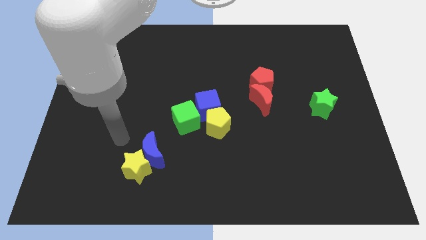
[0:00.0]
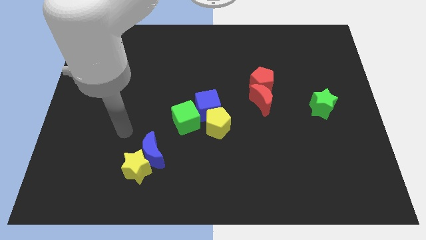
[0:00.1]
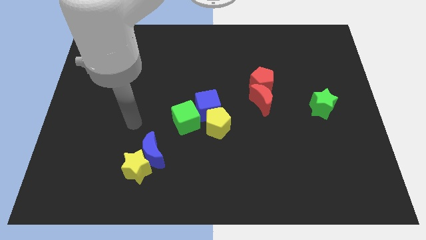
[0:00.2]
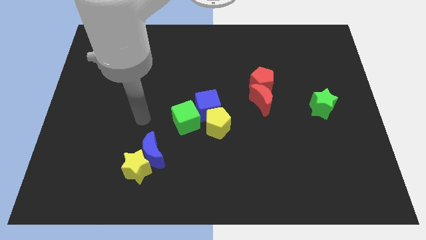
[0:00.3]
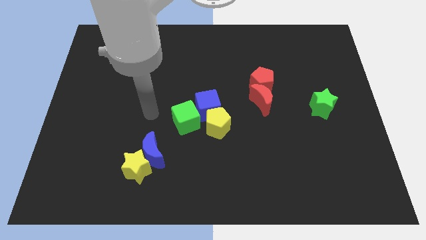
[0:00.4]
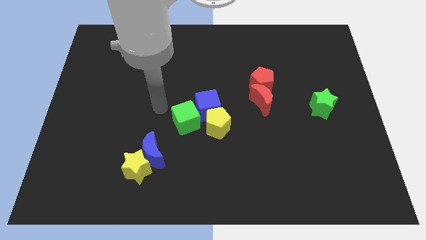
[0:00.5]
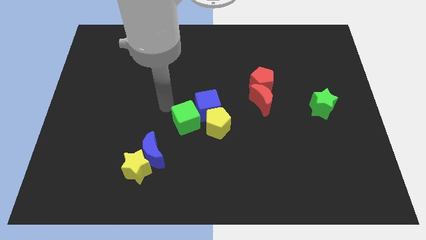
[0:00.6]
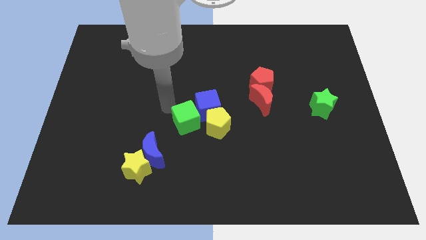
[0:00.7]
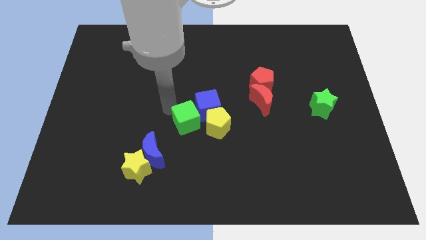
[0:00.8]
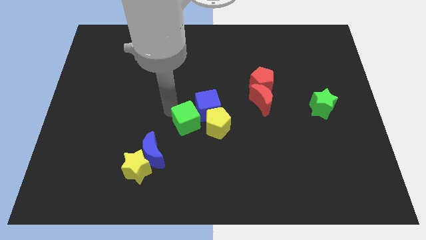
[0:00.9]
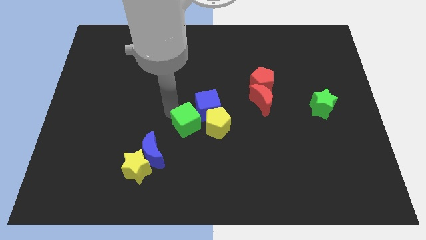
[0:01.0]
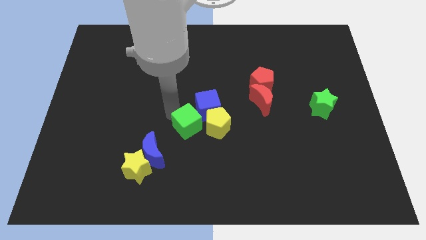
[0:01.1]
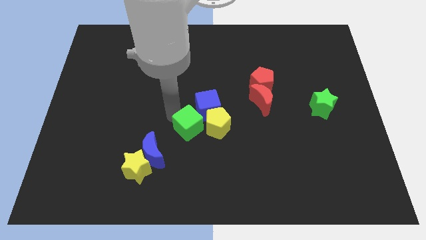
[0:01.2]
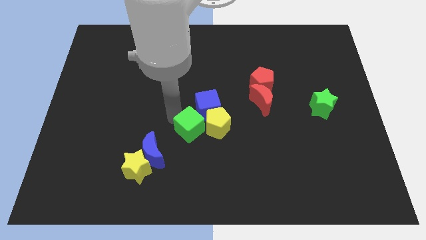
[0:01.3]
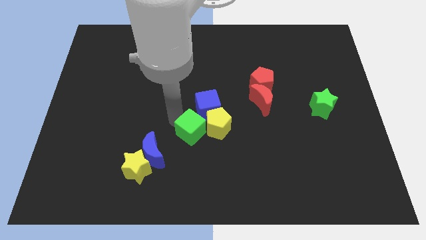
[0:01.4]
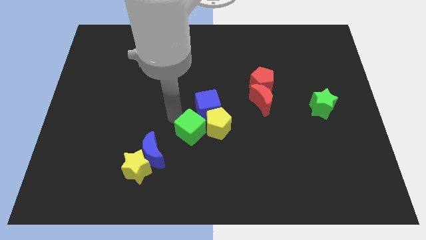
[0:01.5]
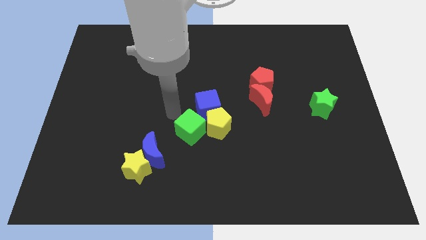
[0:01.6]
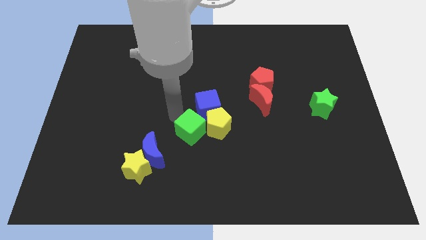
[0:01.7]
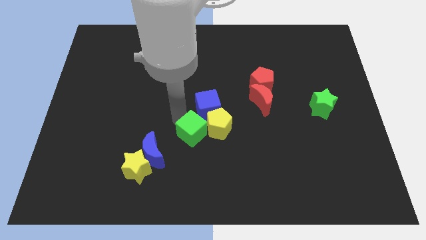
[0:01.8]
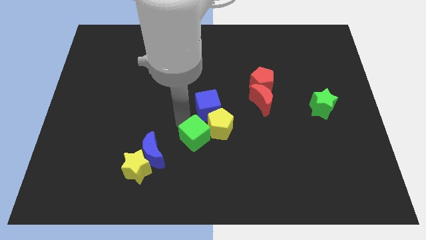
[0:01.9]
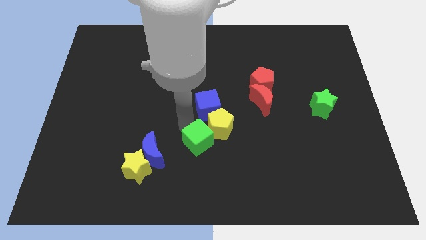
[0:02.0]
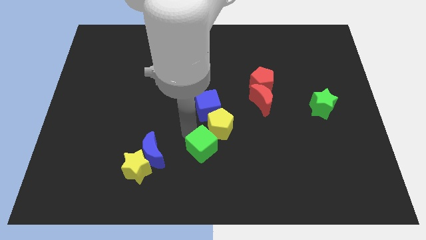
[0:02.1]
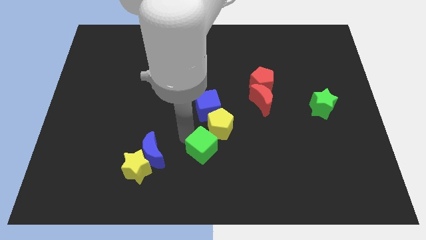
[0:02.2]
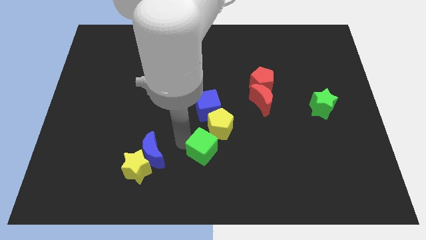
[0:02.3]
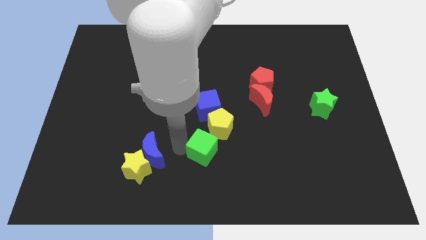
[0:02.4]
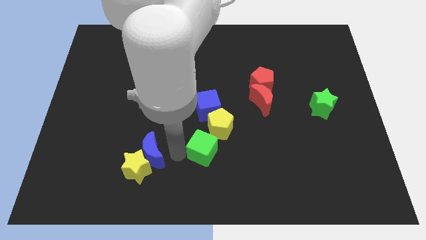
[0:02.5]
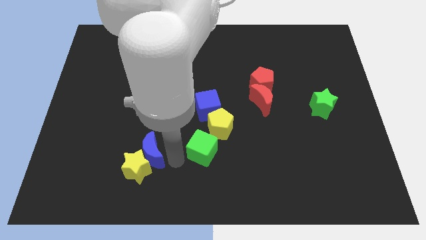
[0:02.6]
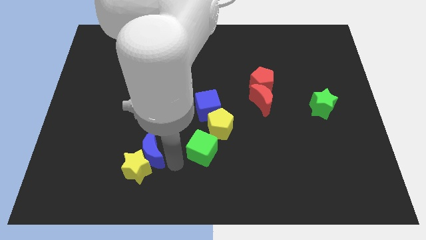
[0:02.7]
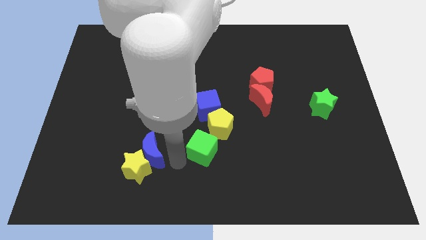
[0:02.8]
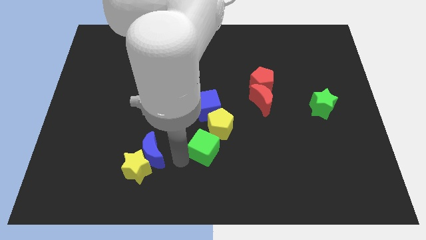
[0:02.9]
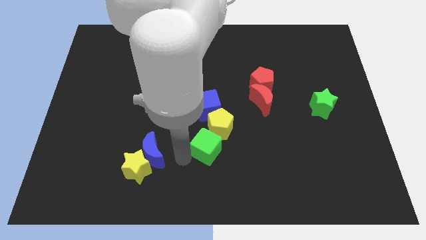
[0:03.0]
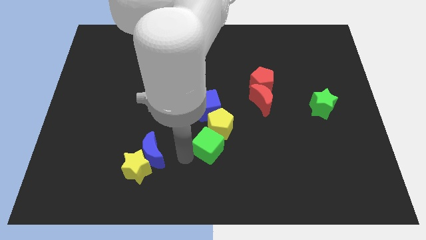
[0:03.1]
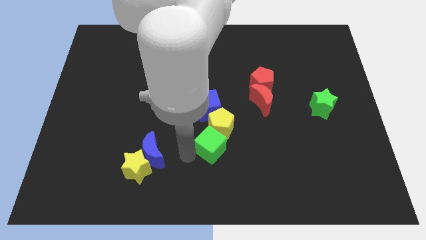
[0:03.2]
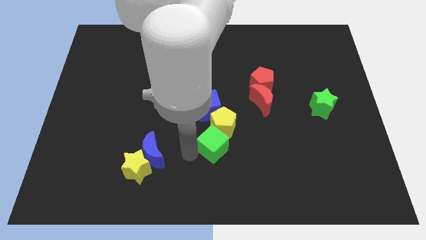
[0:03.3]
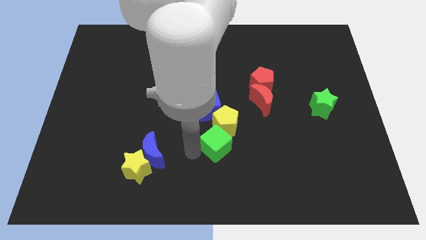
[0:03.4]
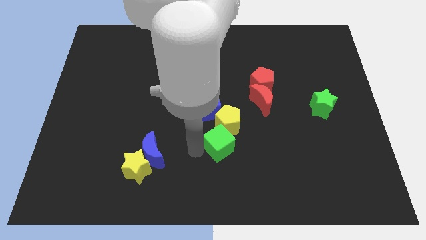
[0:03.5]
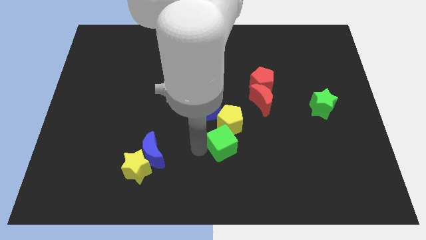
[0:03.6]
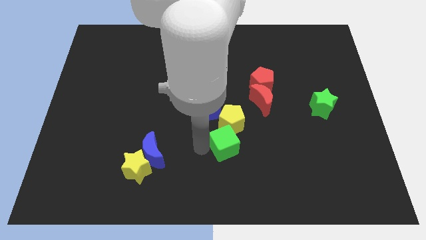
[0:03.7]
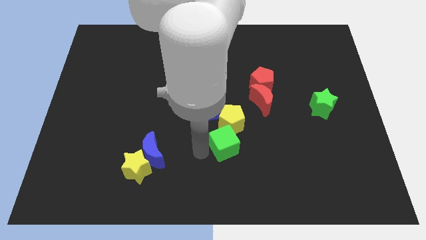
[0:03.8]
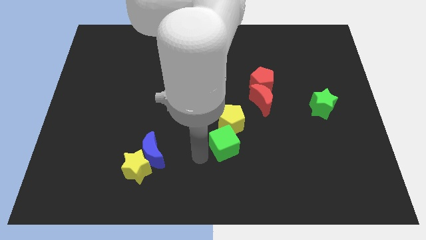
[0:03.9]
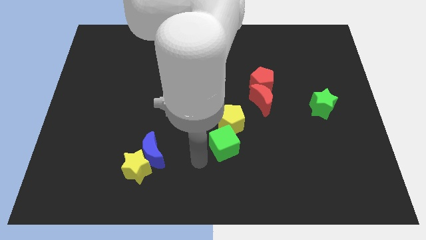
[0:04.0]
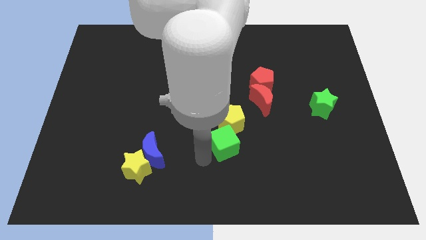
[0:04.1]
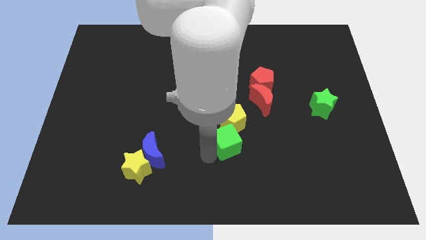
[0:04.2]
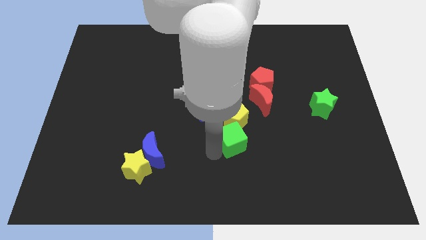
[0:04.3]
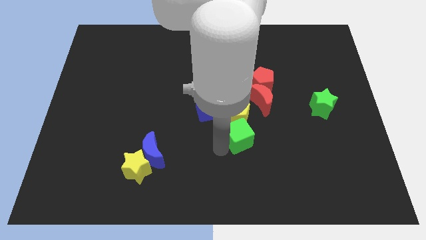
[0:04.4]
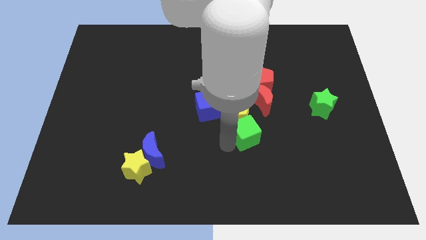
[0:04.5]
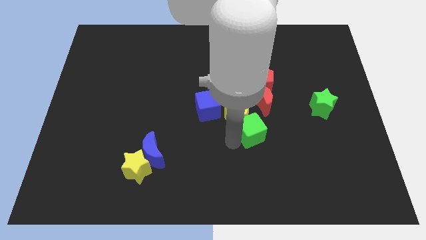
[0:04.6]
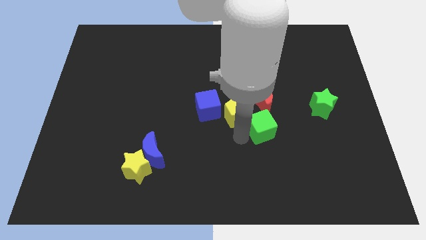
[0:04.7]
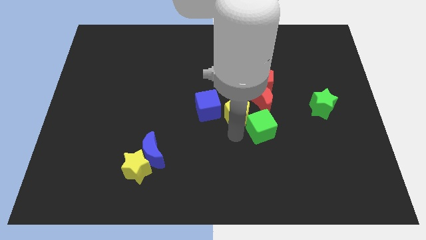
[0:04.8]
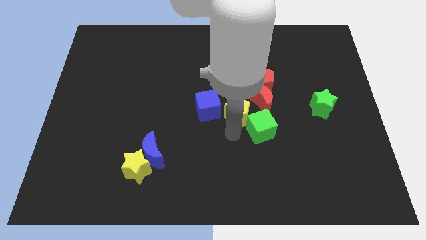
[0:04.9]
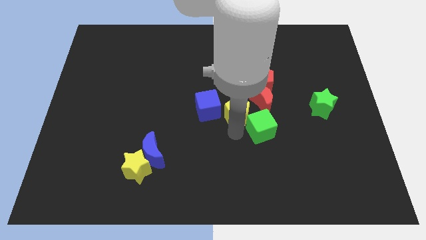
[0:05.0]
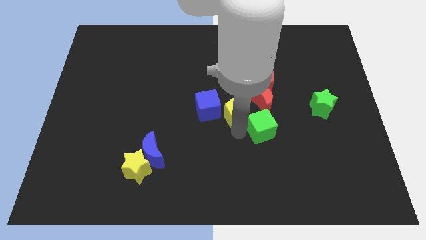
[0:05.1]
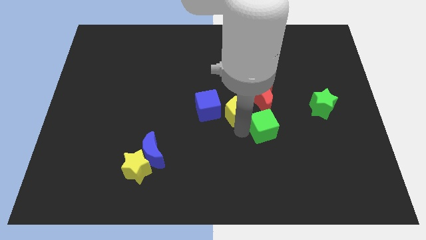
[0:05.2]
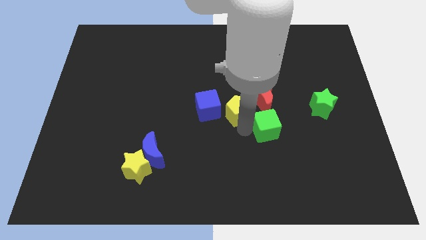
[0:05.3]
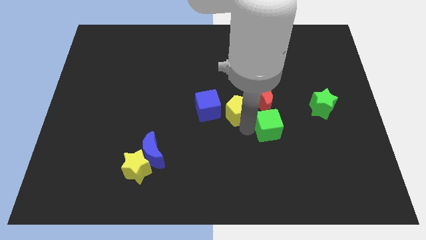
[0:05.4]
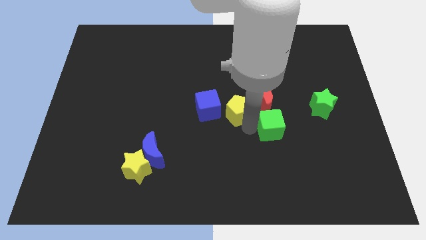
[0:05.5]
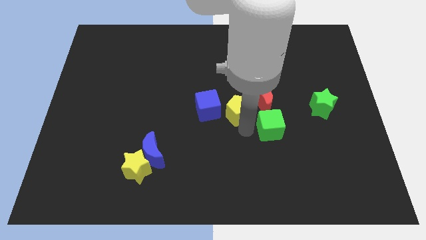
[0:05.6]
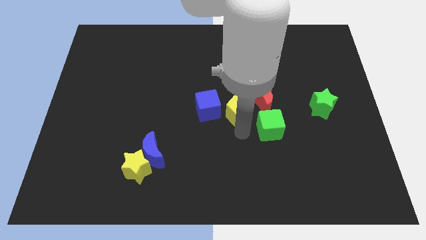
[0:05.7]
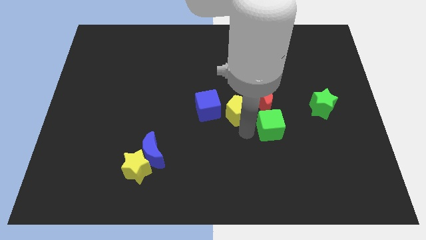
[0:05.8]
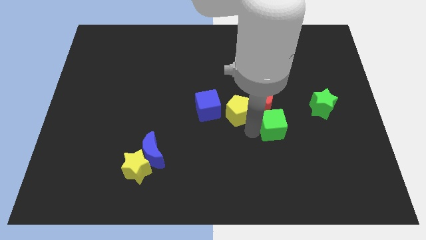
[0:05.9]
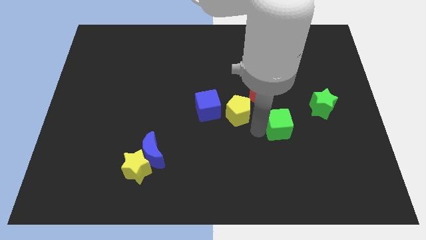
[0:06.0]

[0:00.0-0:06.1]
move the green cube to the right

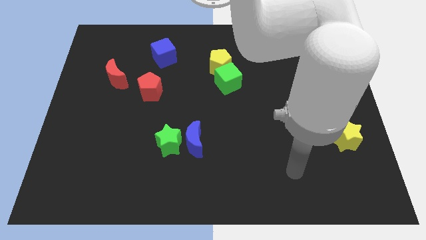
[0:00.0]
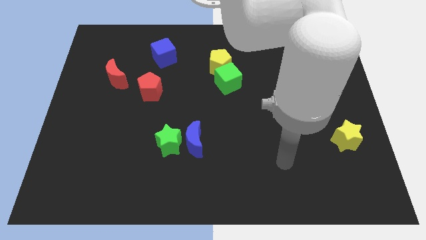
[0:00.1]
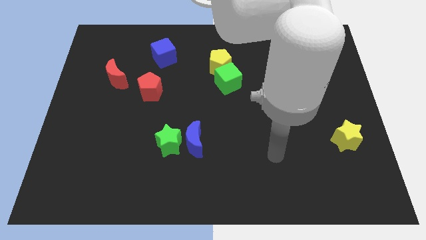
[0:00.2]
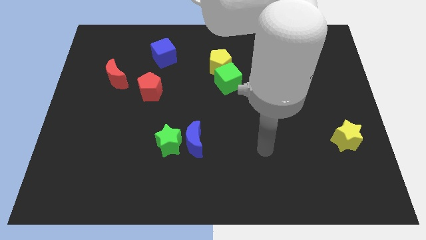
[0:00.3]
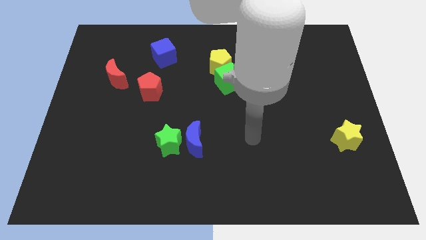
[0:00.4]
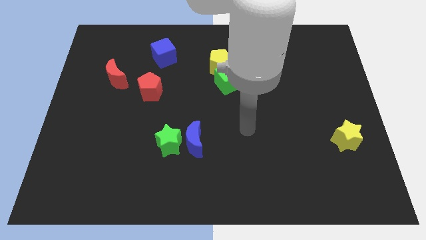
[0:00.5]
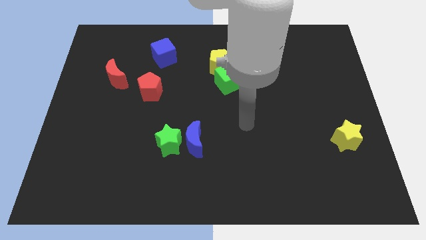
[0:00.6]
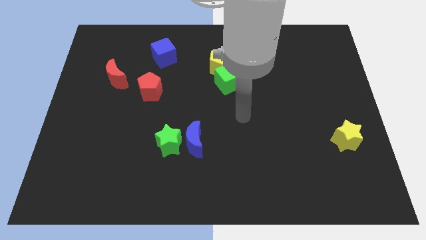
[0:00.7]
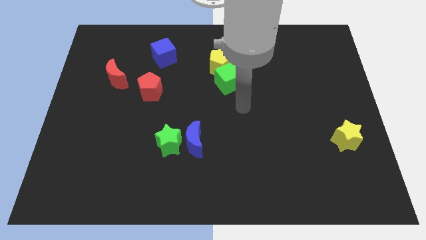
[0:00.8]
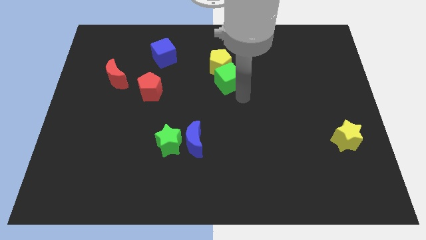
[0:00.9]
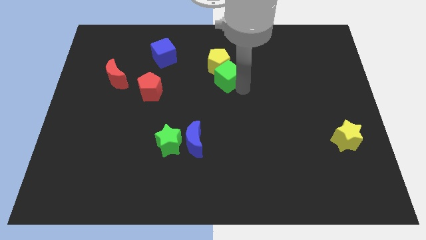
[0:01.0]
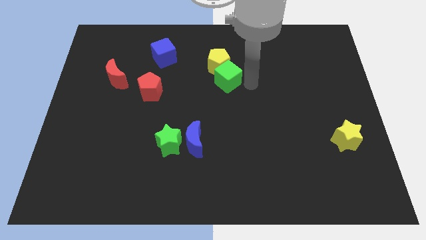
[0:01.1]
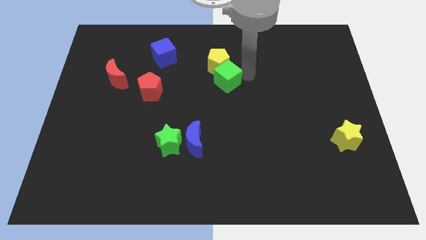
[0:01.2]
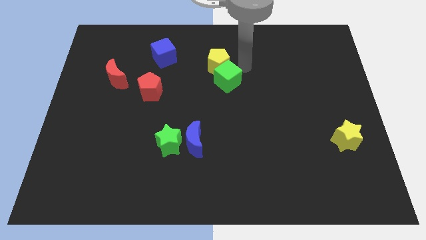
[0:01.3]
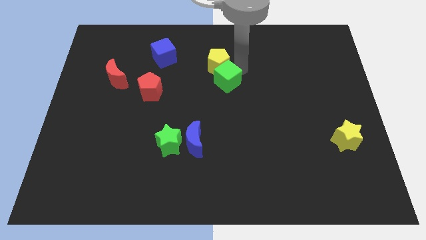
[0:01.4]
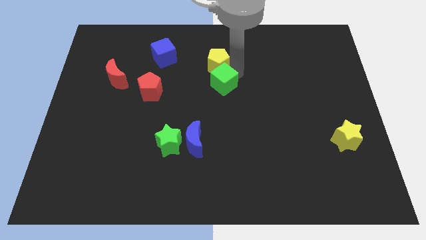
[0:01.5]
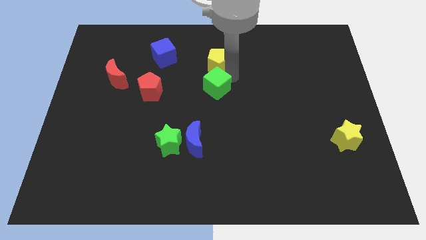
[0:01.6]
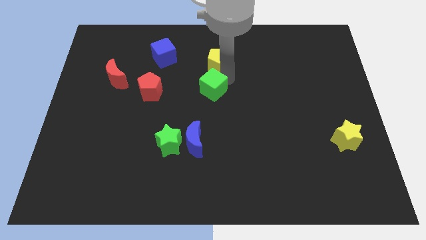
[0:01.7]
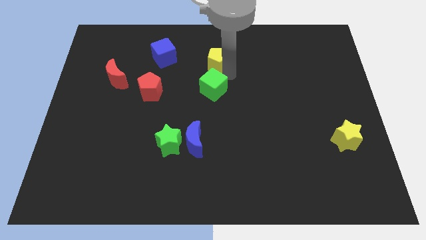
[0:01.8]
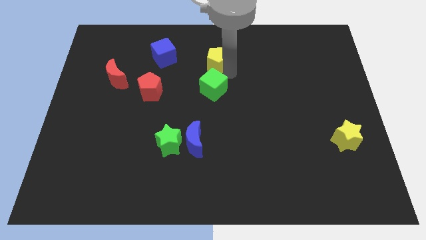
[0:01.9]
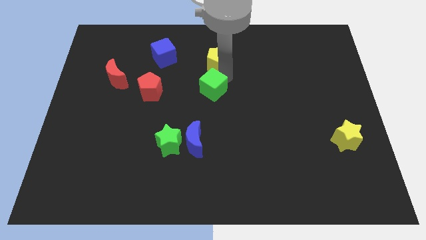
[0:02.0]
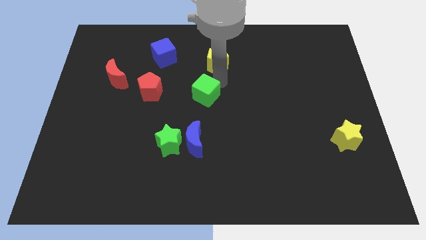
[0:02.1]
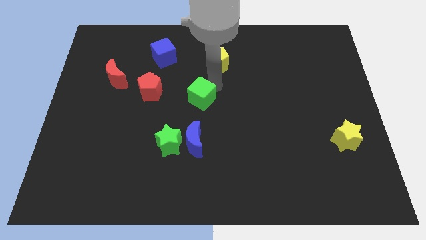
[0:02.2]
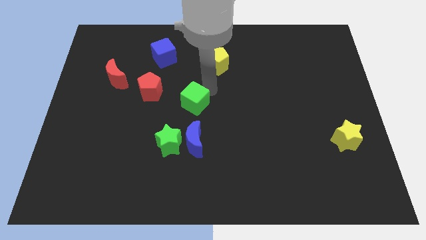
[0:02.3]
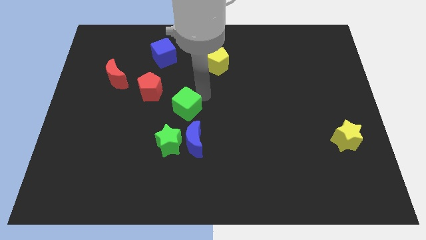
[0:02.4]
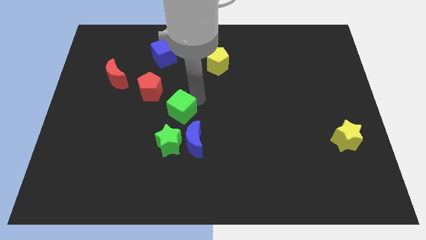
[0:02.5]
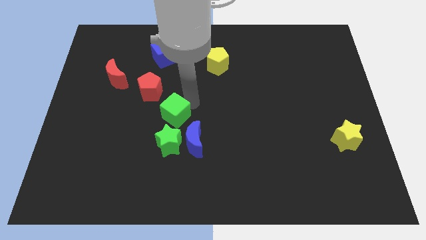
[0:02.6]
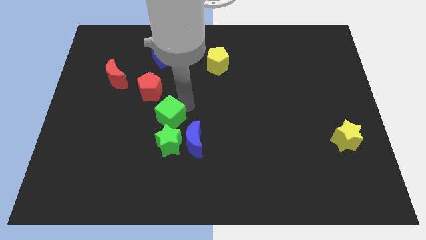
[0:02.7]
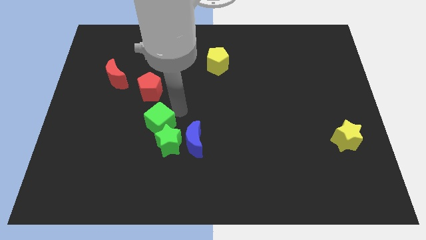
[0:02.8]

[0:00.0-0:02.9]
slide the green cube downwards and then to the left
